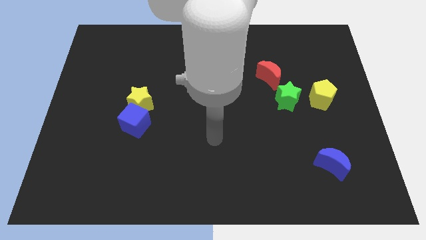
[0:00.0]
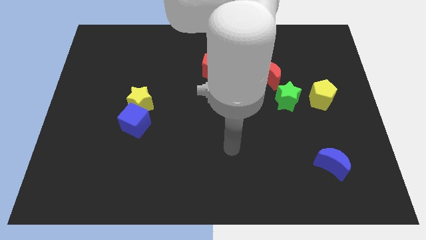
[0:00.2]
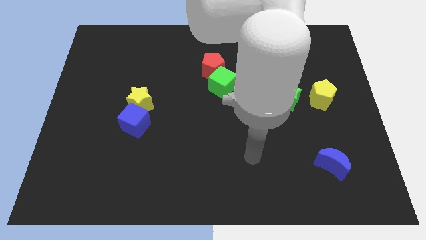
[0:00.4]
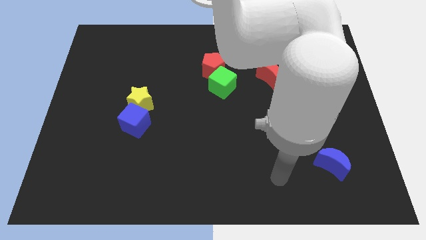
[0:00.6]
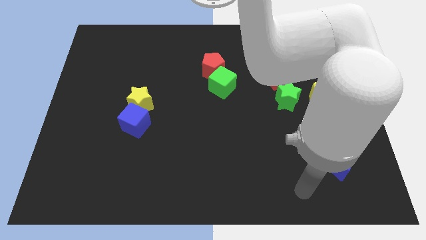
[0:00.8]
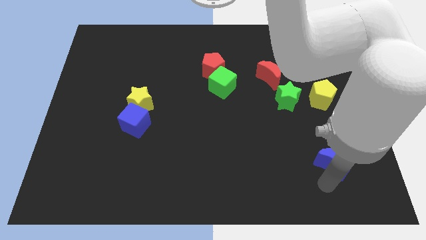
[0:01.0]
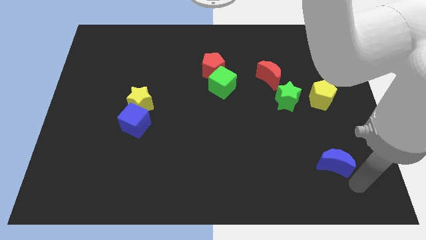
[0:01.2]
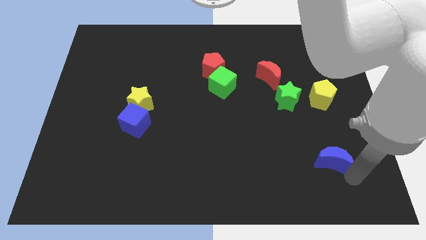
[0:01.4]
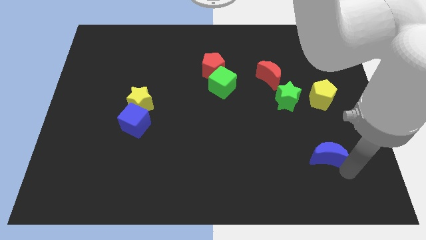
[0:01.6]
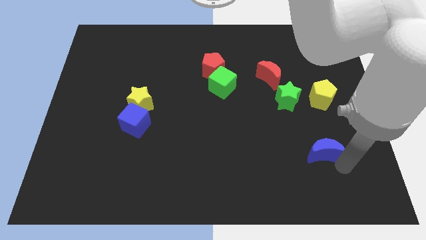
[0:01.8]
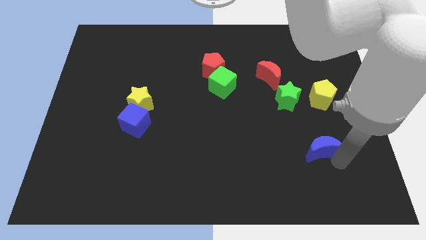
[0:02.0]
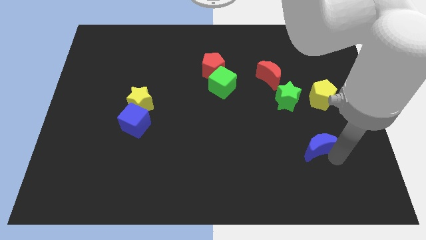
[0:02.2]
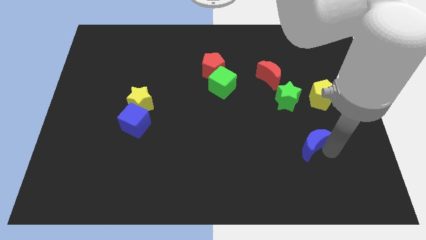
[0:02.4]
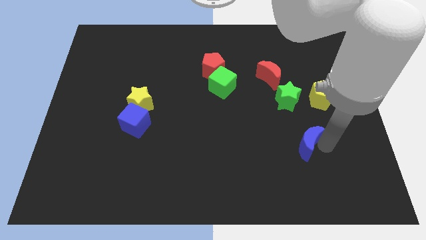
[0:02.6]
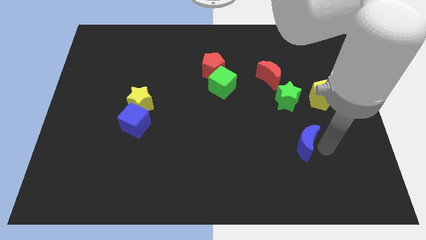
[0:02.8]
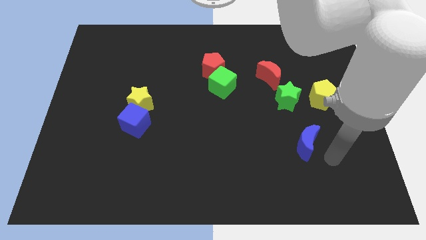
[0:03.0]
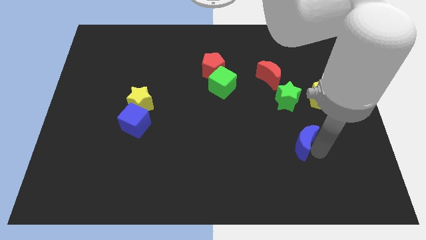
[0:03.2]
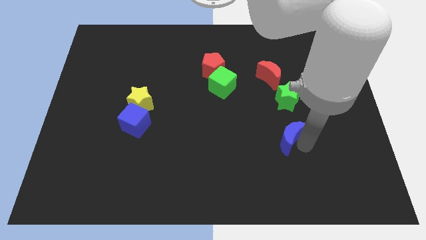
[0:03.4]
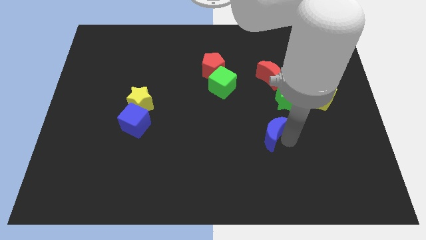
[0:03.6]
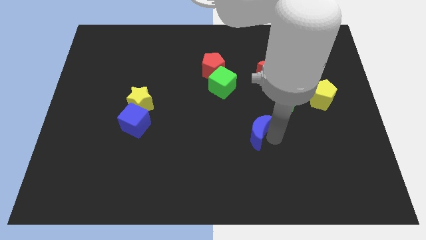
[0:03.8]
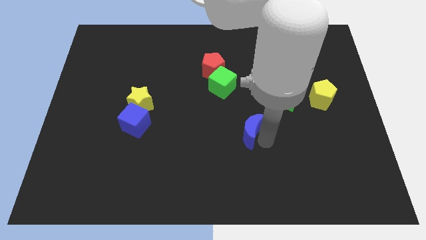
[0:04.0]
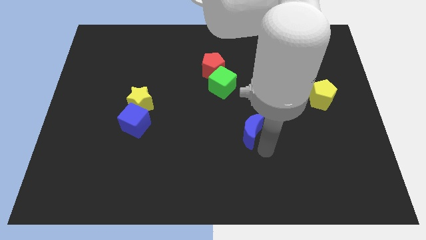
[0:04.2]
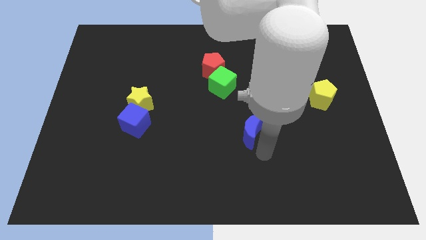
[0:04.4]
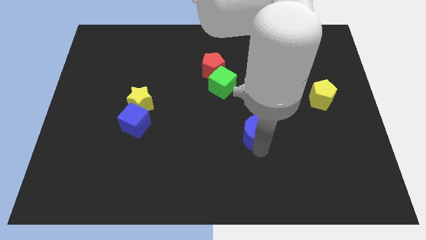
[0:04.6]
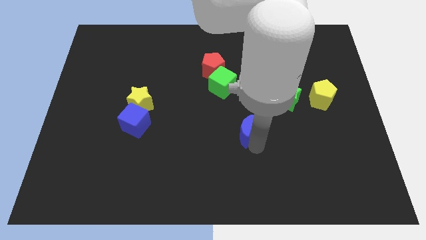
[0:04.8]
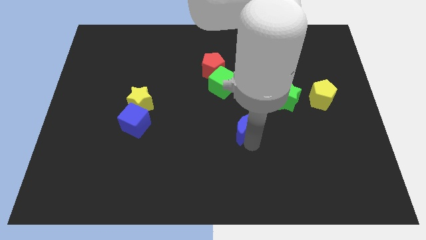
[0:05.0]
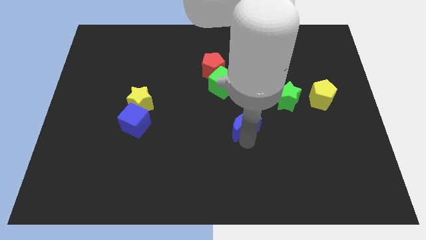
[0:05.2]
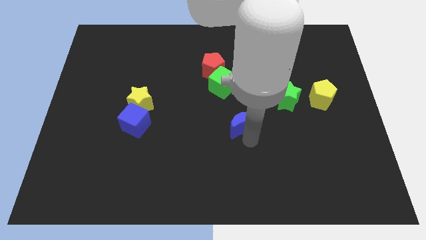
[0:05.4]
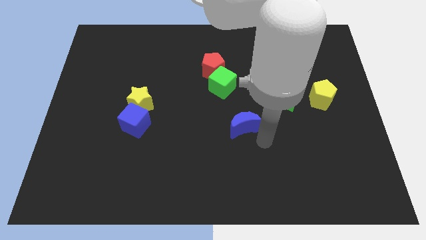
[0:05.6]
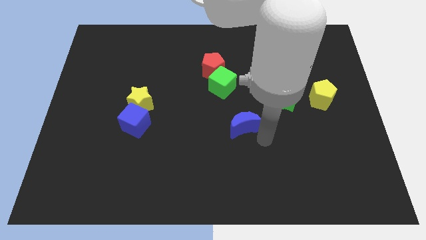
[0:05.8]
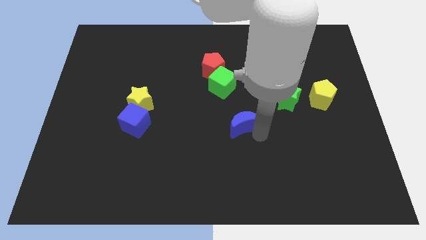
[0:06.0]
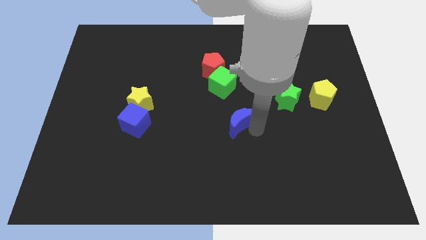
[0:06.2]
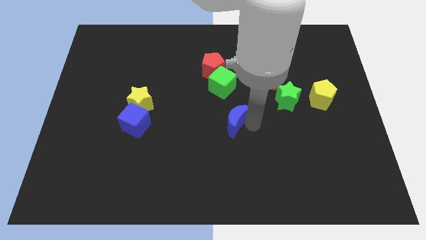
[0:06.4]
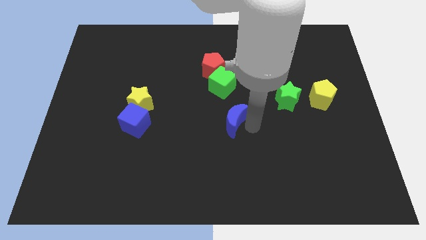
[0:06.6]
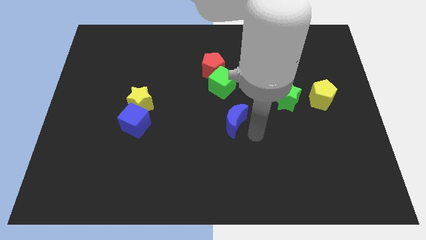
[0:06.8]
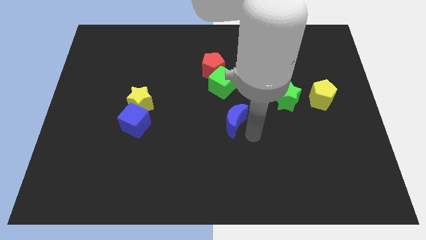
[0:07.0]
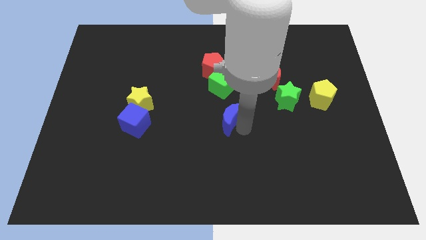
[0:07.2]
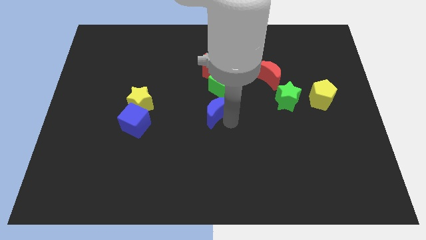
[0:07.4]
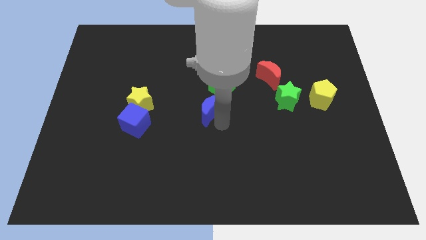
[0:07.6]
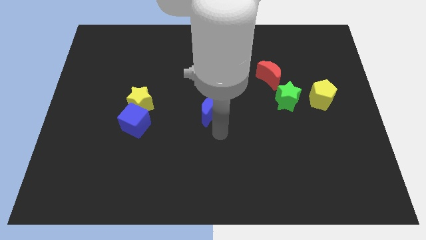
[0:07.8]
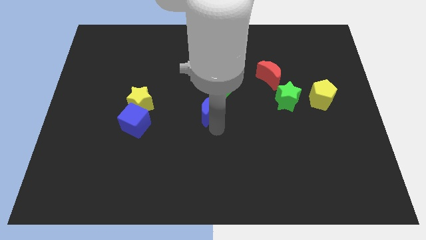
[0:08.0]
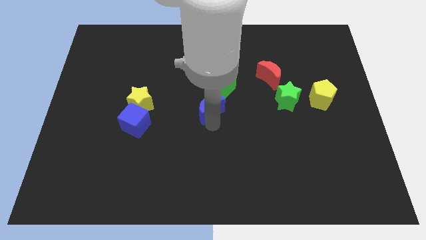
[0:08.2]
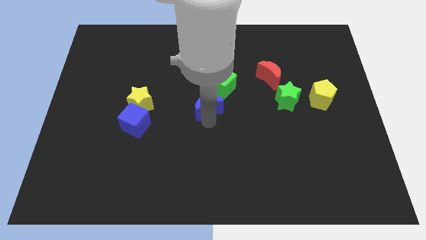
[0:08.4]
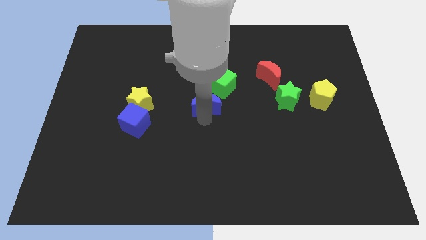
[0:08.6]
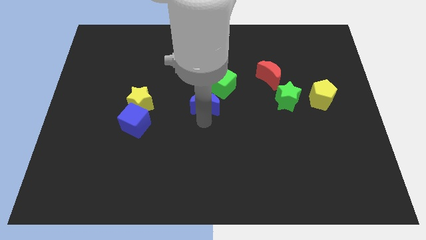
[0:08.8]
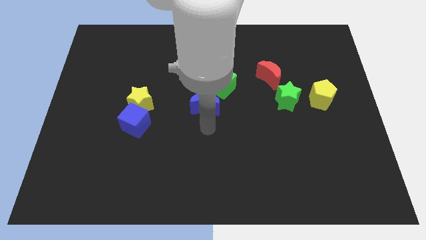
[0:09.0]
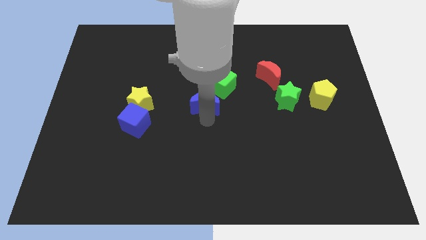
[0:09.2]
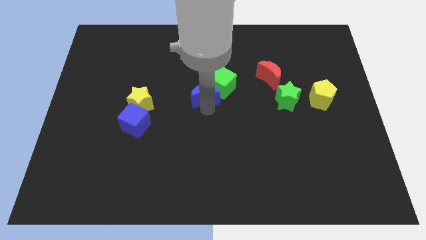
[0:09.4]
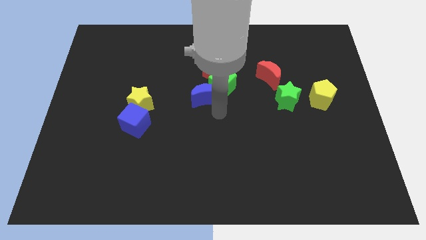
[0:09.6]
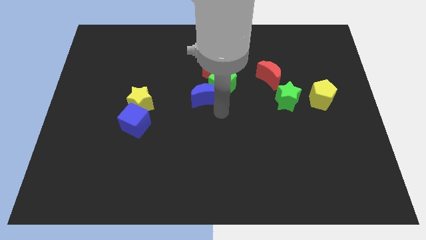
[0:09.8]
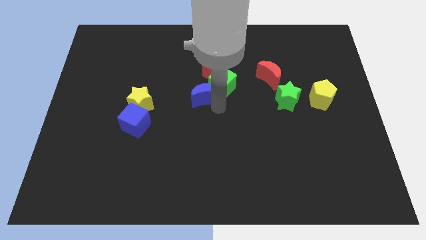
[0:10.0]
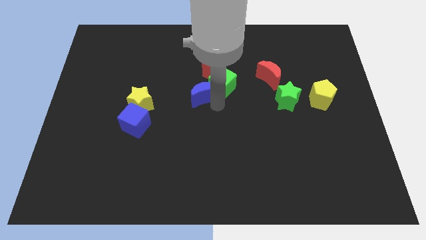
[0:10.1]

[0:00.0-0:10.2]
push the blue moon to the bottom left side of the red pentagon

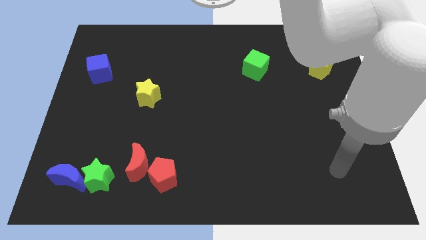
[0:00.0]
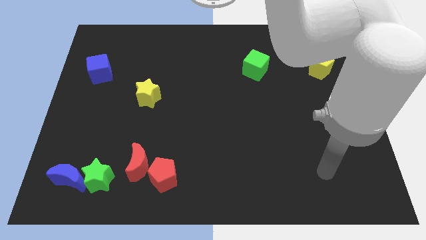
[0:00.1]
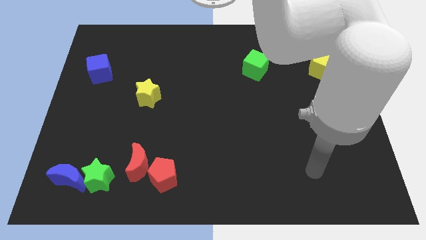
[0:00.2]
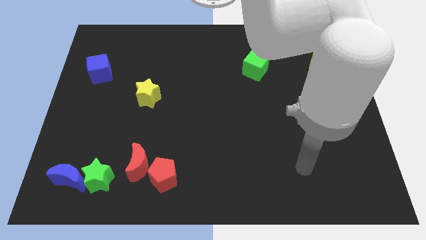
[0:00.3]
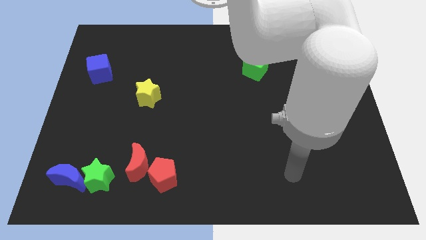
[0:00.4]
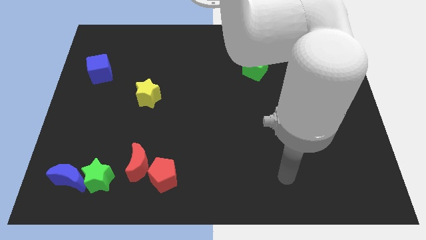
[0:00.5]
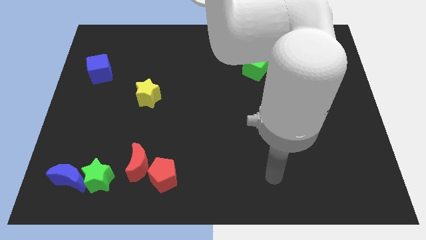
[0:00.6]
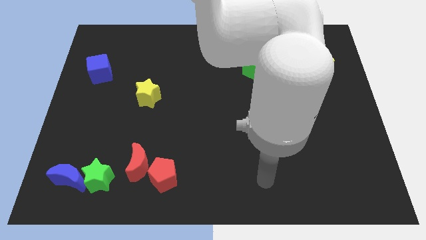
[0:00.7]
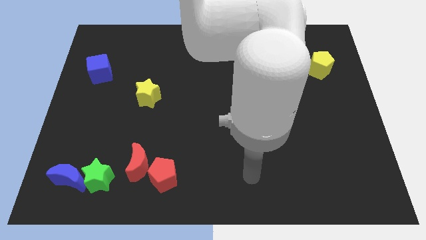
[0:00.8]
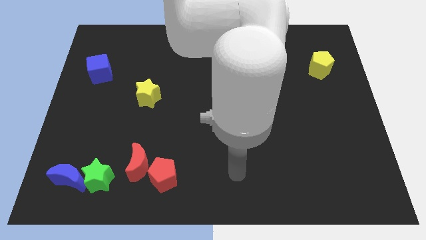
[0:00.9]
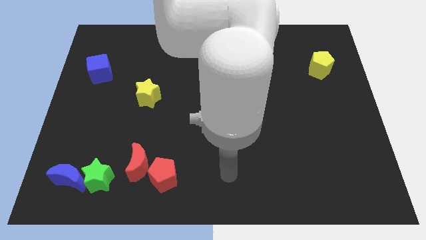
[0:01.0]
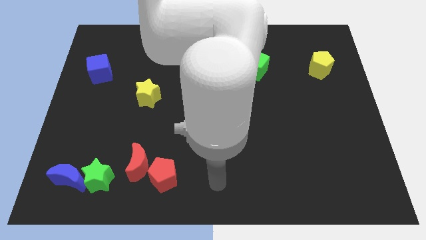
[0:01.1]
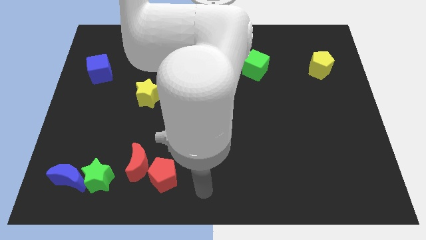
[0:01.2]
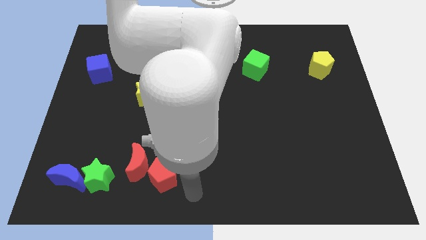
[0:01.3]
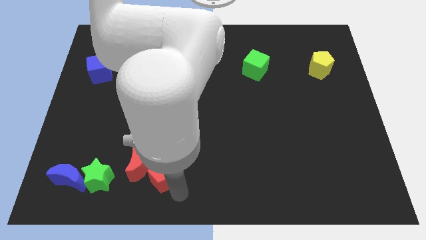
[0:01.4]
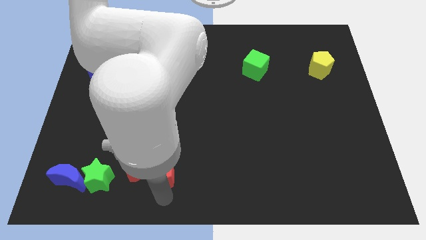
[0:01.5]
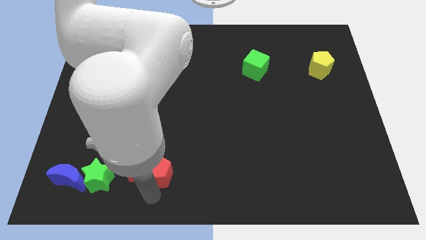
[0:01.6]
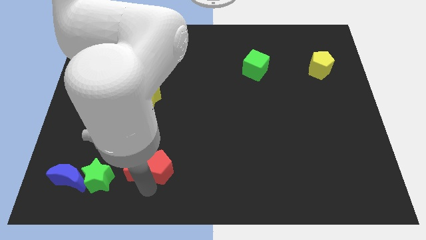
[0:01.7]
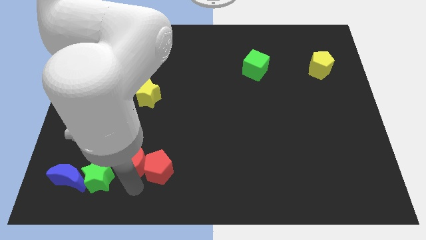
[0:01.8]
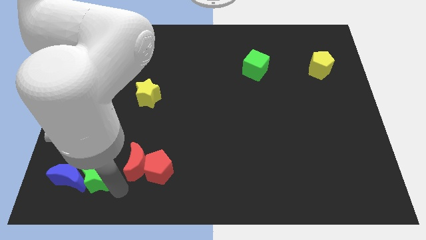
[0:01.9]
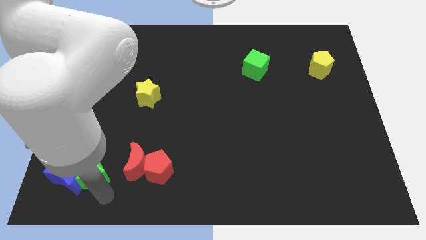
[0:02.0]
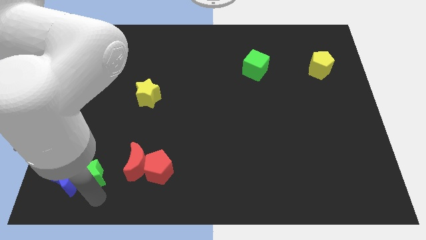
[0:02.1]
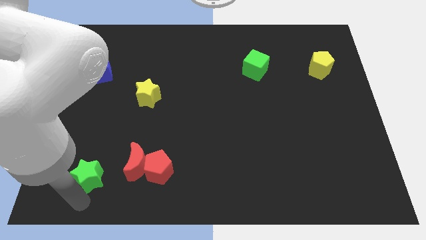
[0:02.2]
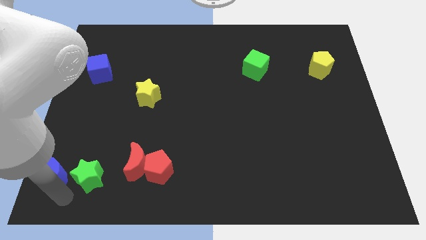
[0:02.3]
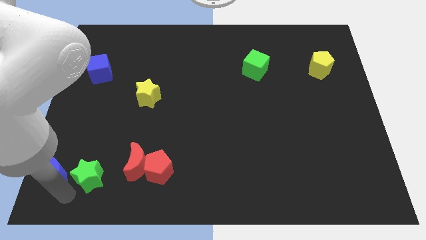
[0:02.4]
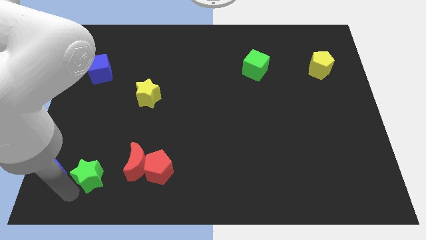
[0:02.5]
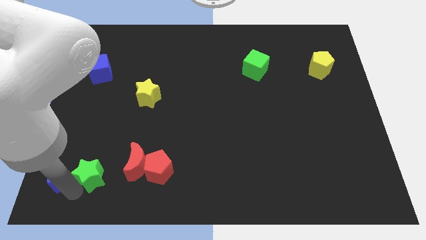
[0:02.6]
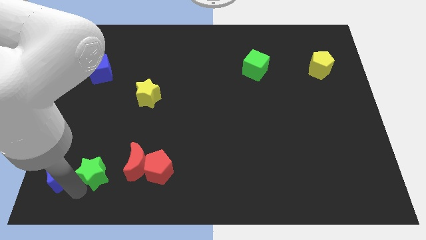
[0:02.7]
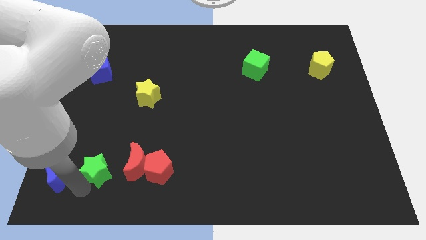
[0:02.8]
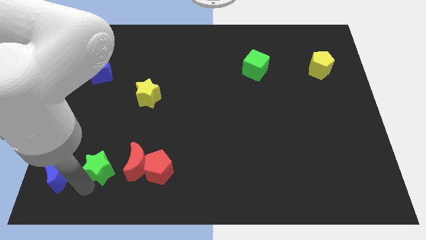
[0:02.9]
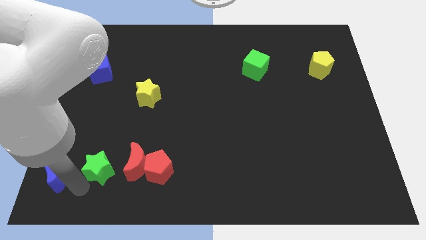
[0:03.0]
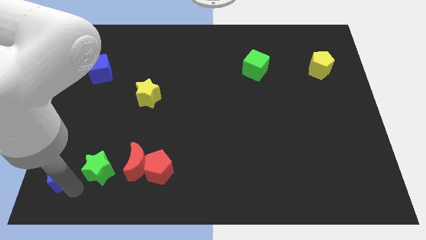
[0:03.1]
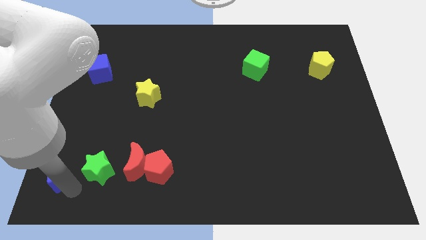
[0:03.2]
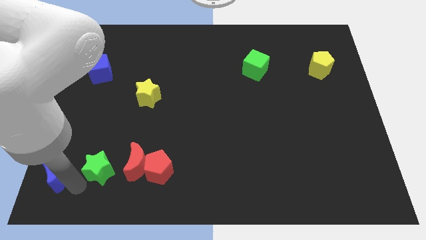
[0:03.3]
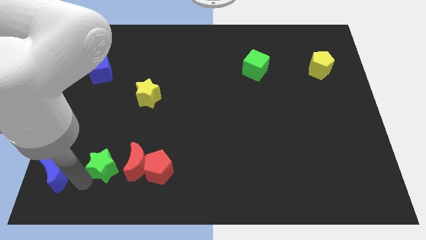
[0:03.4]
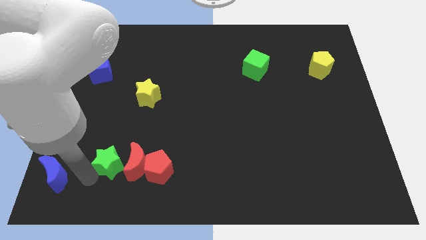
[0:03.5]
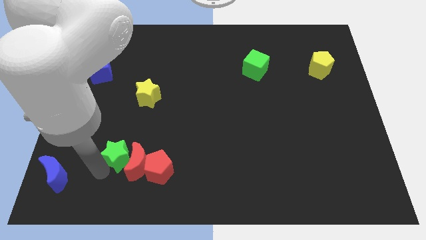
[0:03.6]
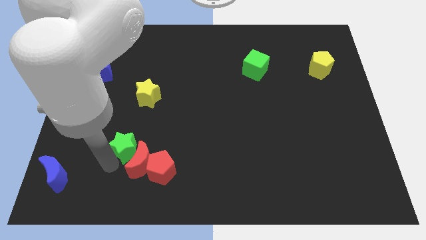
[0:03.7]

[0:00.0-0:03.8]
push the green star to the bottom of the yellow star
